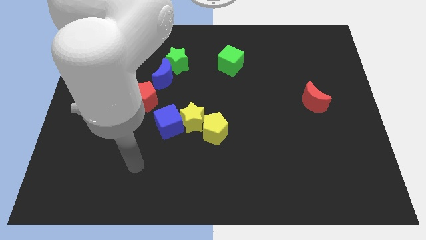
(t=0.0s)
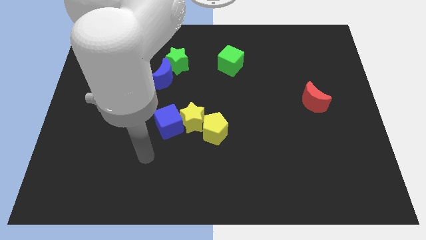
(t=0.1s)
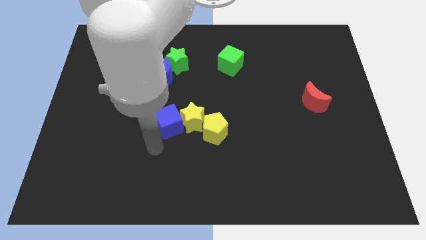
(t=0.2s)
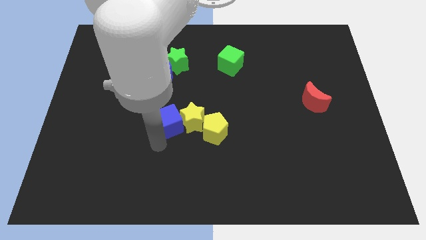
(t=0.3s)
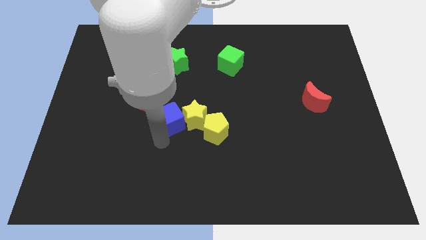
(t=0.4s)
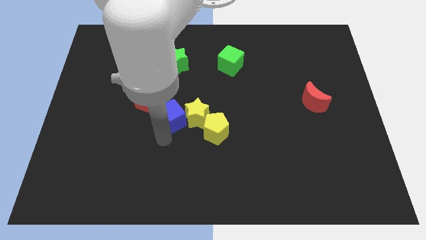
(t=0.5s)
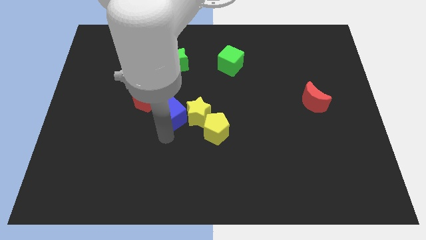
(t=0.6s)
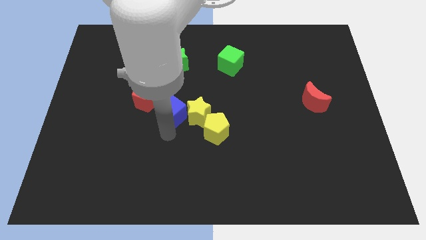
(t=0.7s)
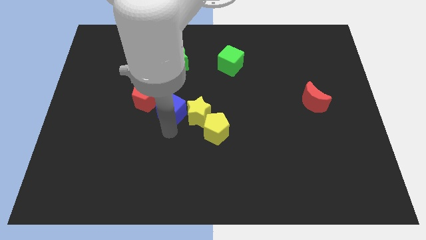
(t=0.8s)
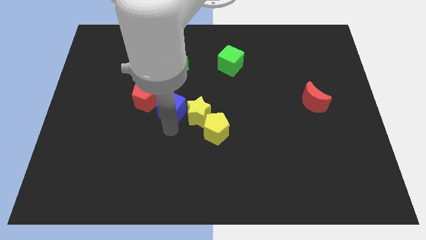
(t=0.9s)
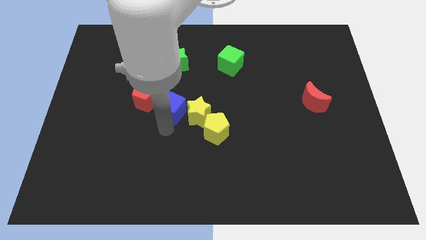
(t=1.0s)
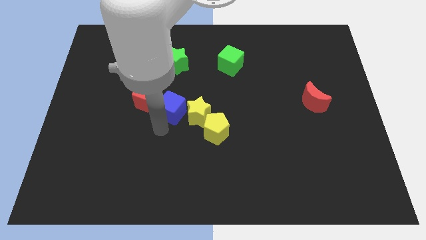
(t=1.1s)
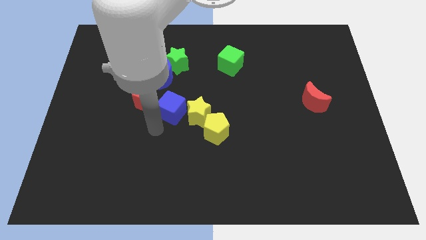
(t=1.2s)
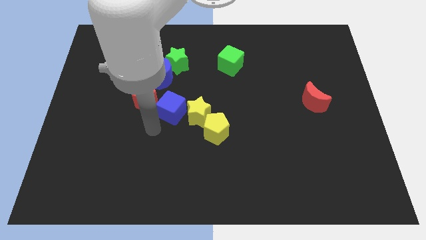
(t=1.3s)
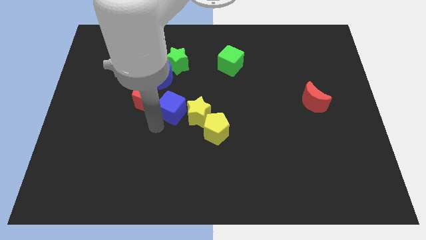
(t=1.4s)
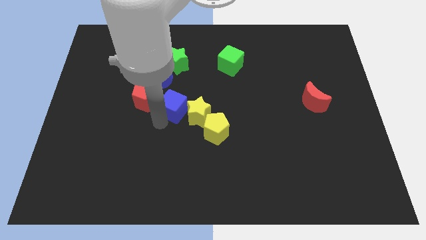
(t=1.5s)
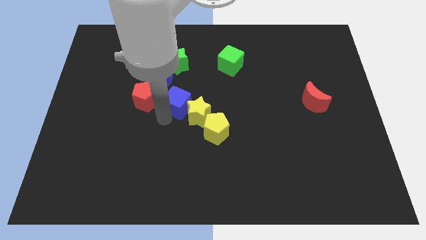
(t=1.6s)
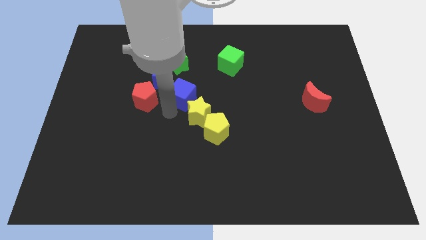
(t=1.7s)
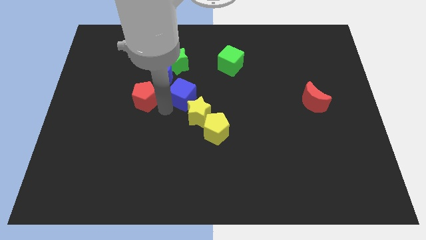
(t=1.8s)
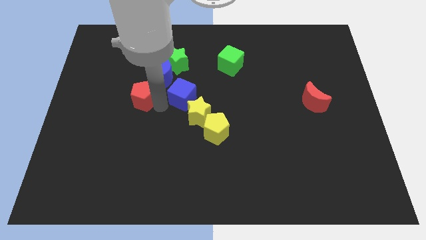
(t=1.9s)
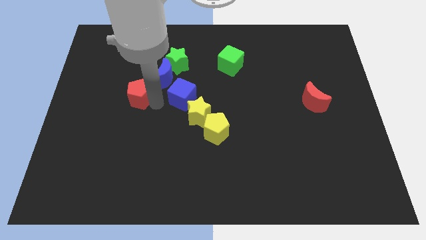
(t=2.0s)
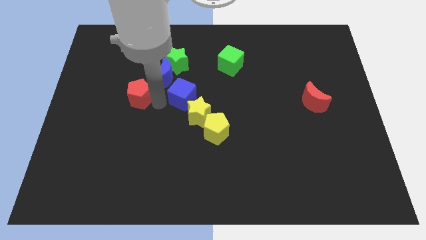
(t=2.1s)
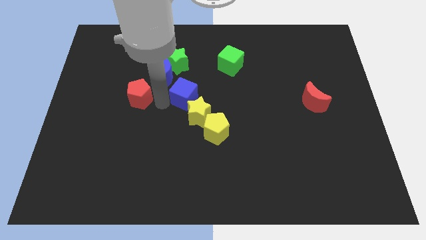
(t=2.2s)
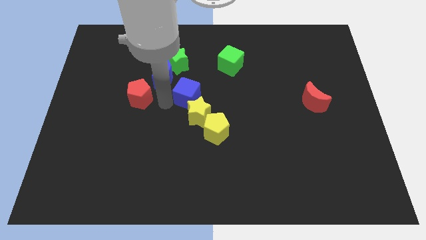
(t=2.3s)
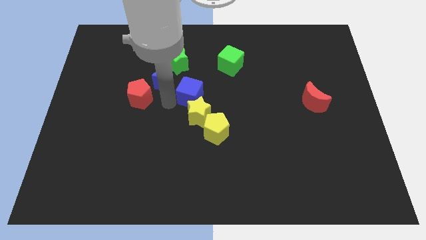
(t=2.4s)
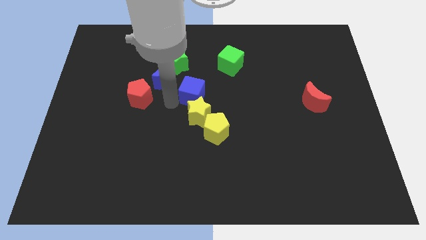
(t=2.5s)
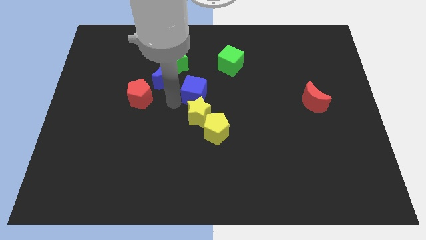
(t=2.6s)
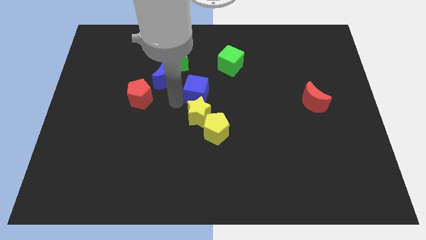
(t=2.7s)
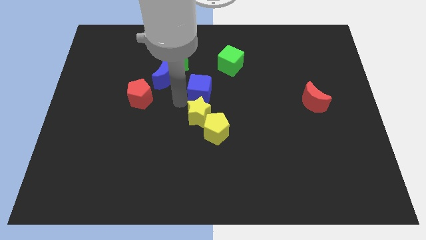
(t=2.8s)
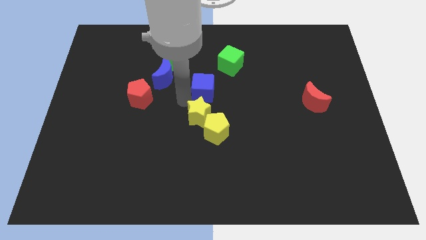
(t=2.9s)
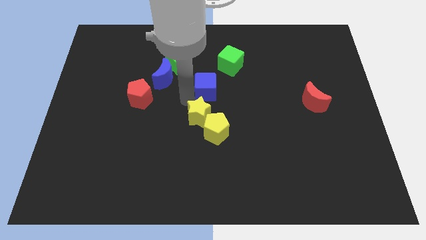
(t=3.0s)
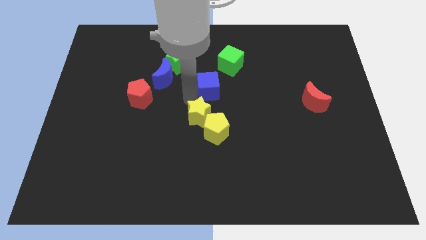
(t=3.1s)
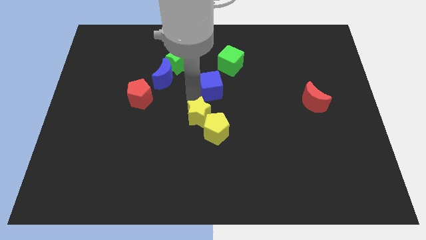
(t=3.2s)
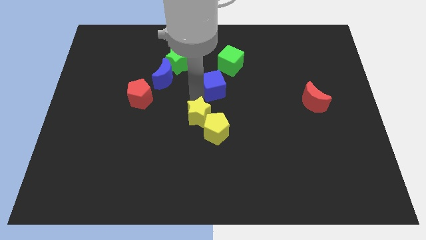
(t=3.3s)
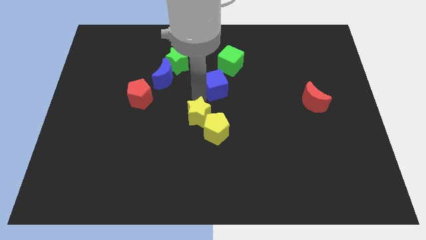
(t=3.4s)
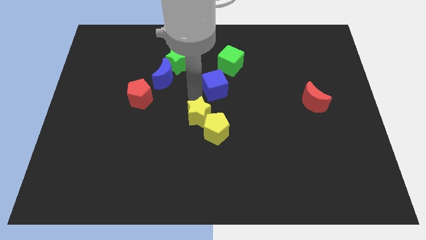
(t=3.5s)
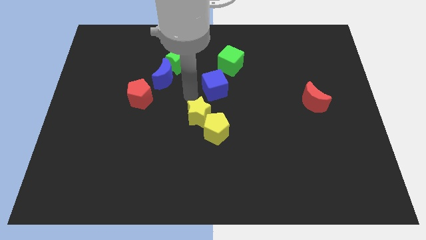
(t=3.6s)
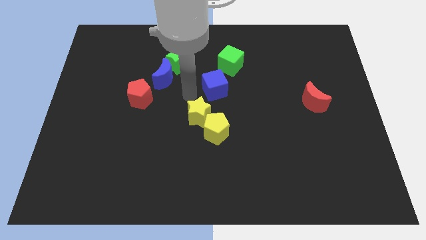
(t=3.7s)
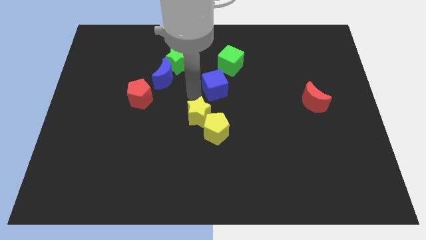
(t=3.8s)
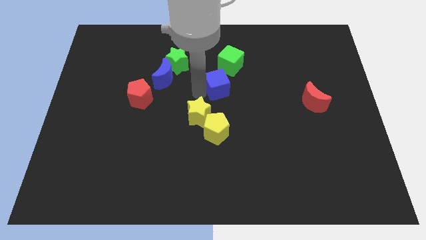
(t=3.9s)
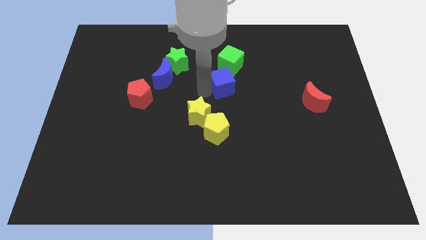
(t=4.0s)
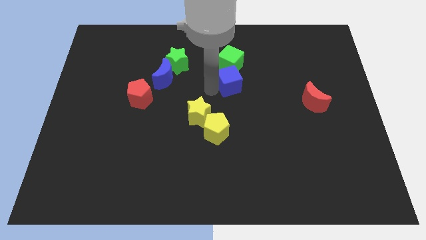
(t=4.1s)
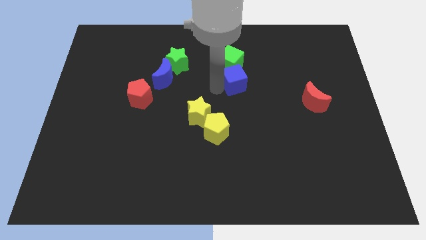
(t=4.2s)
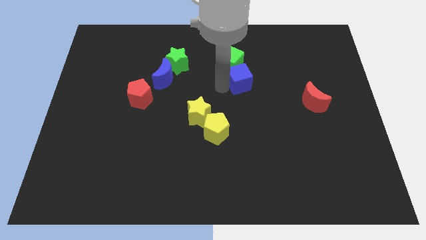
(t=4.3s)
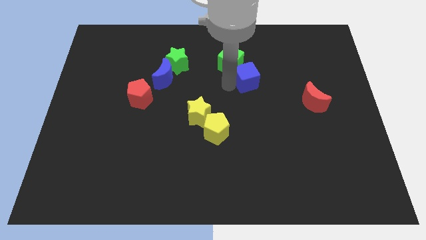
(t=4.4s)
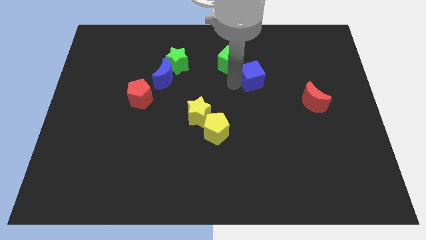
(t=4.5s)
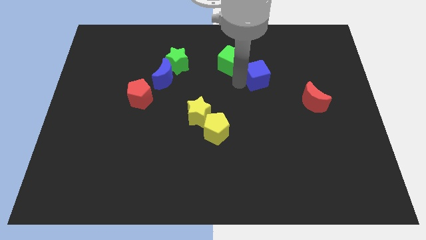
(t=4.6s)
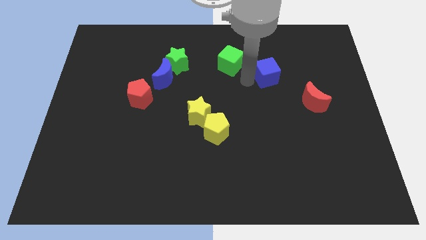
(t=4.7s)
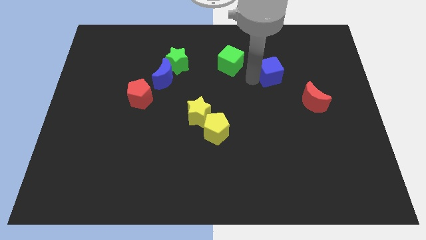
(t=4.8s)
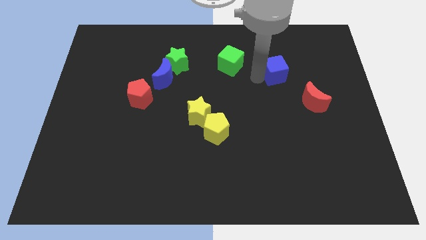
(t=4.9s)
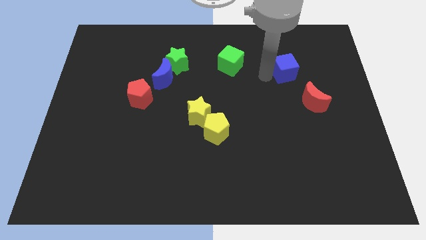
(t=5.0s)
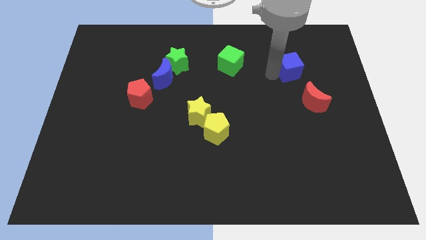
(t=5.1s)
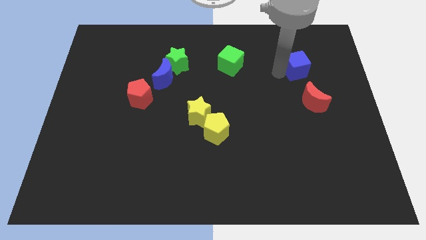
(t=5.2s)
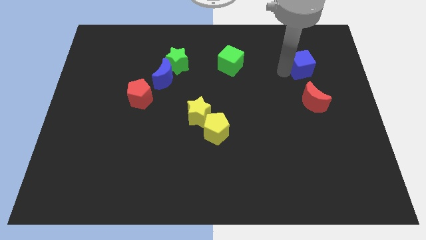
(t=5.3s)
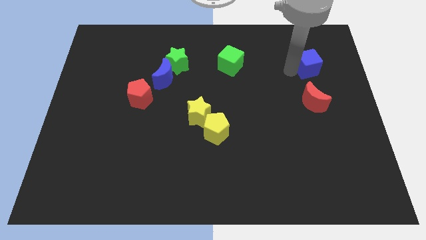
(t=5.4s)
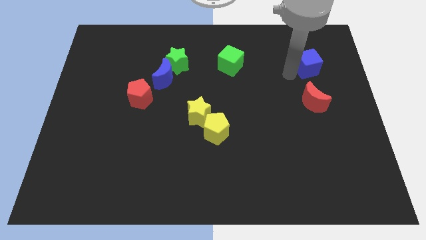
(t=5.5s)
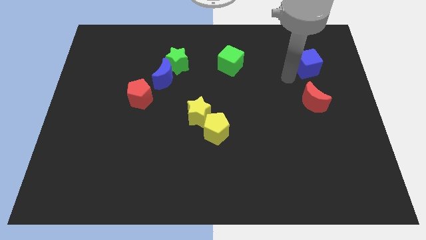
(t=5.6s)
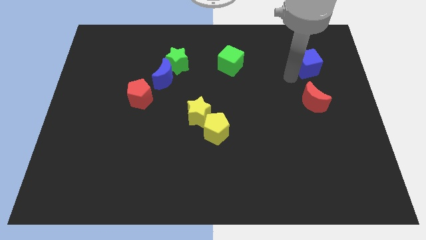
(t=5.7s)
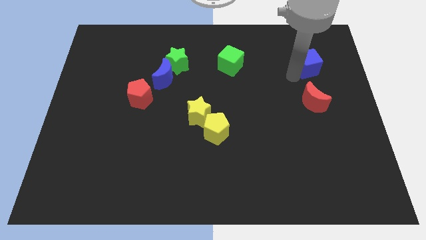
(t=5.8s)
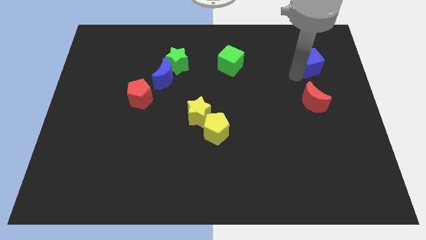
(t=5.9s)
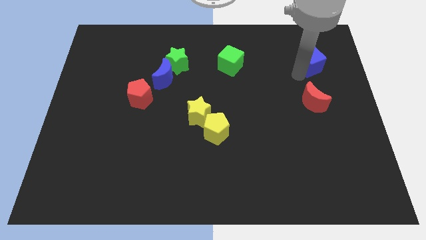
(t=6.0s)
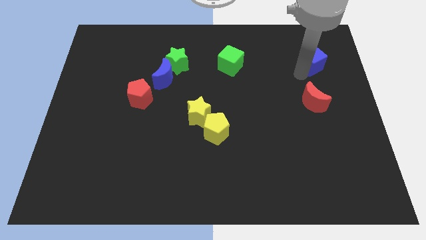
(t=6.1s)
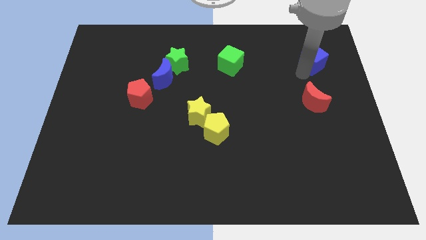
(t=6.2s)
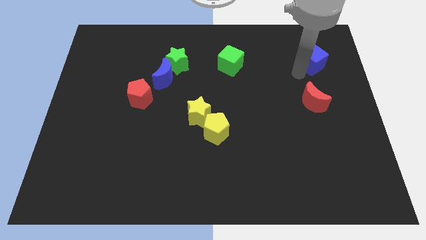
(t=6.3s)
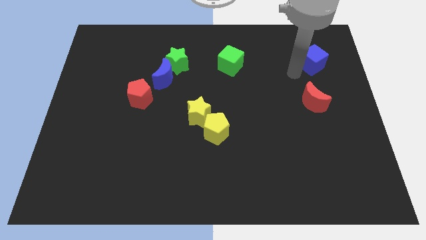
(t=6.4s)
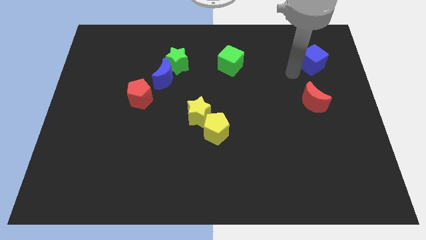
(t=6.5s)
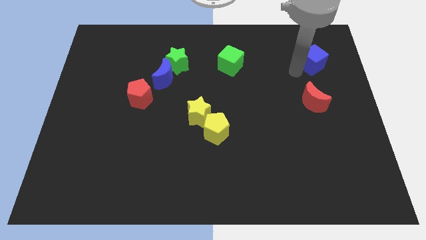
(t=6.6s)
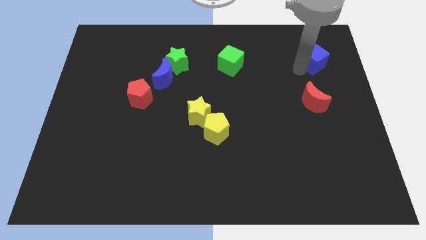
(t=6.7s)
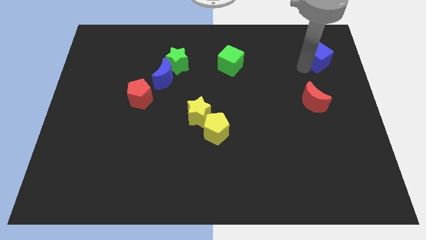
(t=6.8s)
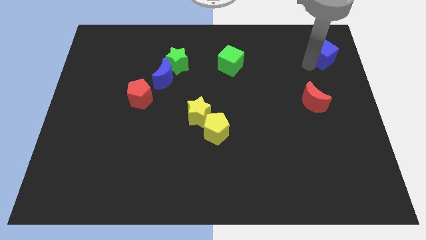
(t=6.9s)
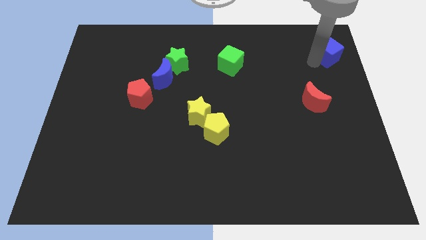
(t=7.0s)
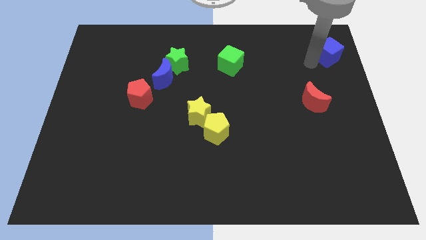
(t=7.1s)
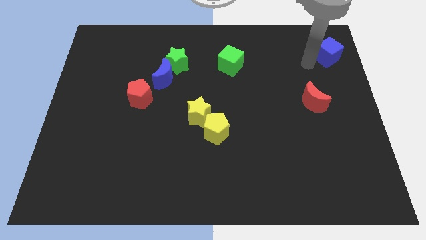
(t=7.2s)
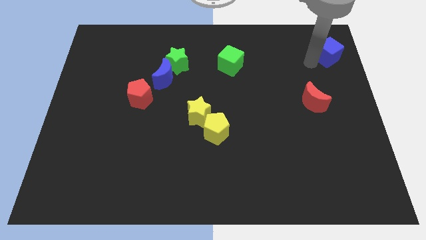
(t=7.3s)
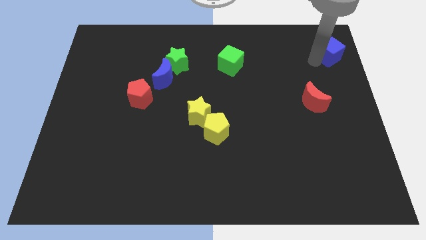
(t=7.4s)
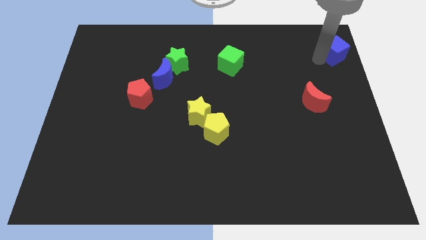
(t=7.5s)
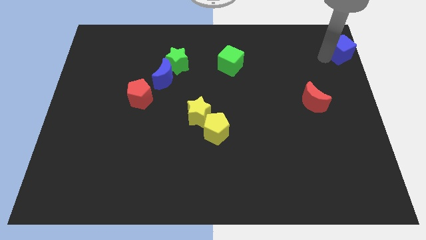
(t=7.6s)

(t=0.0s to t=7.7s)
push the blue cube to the top right of the board
